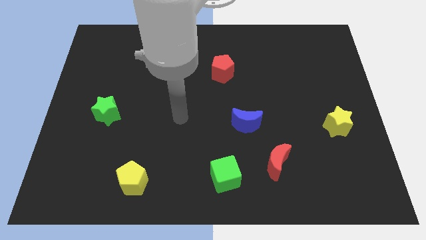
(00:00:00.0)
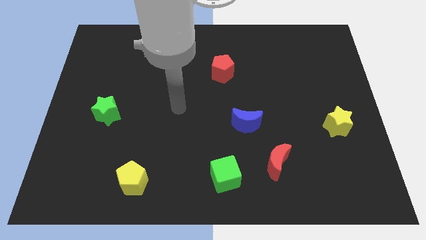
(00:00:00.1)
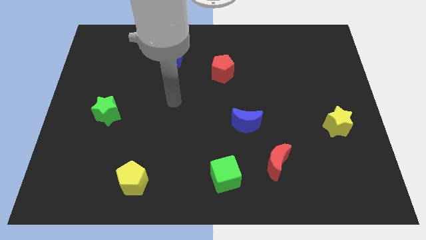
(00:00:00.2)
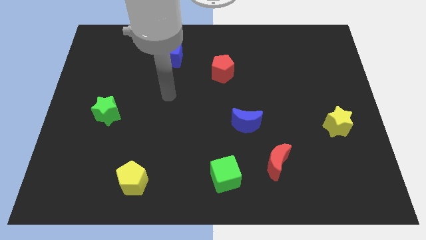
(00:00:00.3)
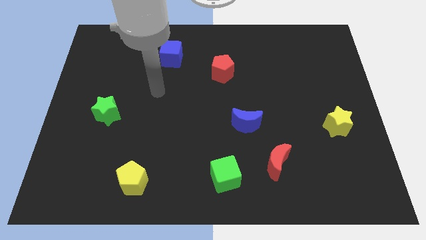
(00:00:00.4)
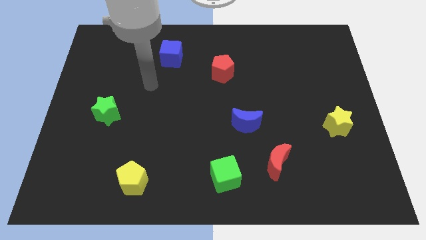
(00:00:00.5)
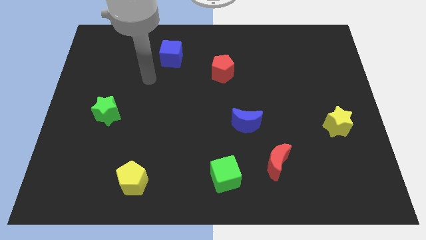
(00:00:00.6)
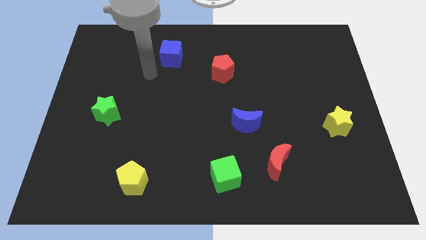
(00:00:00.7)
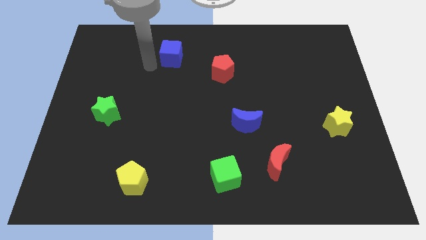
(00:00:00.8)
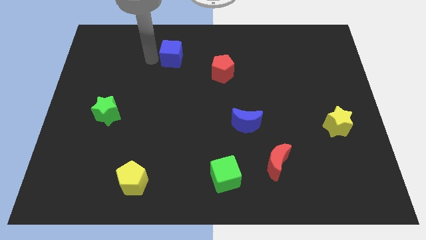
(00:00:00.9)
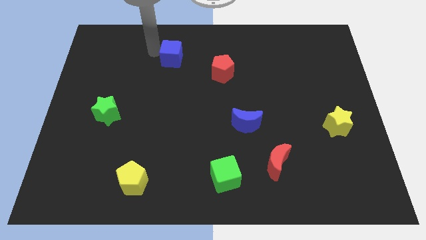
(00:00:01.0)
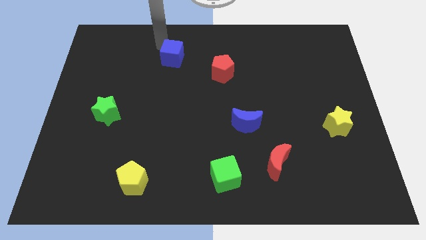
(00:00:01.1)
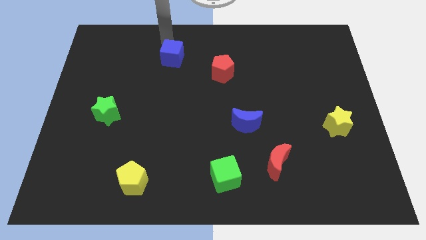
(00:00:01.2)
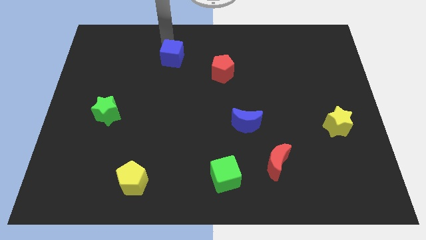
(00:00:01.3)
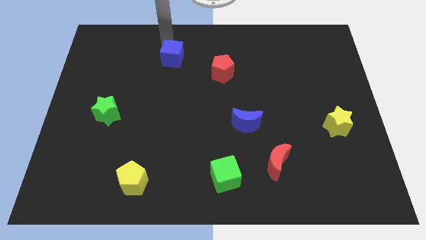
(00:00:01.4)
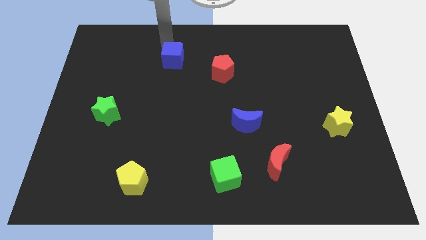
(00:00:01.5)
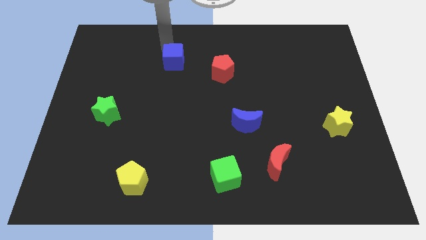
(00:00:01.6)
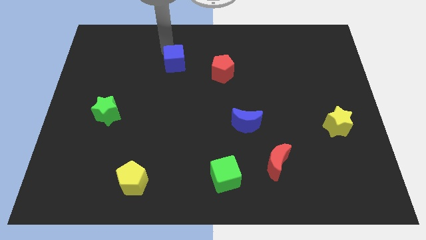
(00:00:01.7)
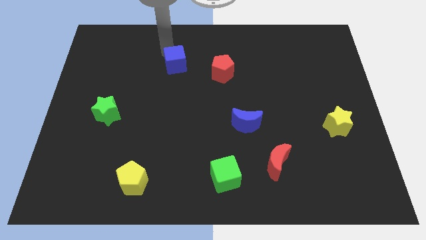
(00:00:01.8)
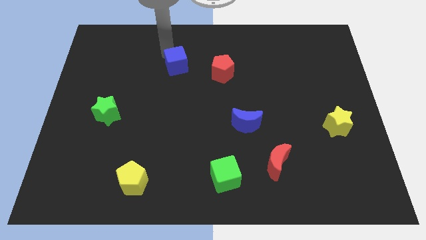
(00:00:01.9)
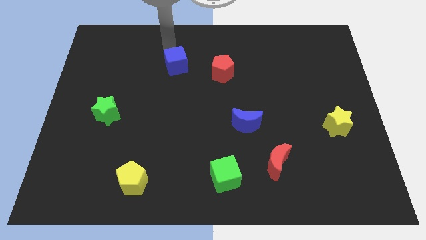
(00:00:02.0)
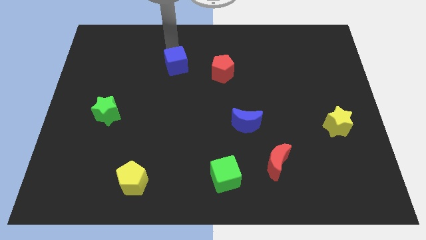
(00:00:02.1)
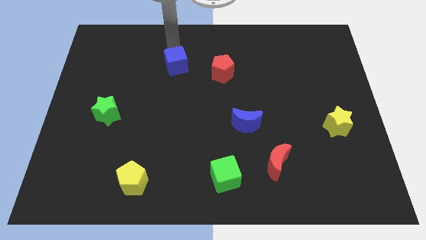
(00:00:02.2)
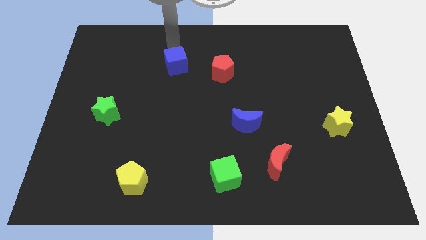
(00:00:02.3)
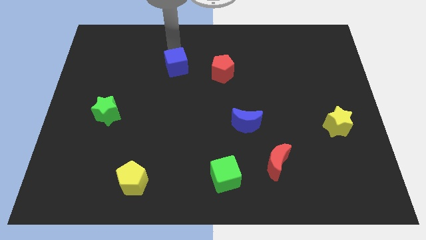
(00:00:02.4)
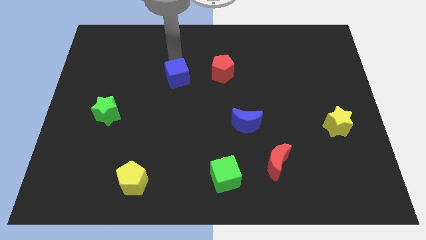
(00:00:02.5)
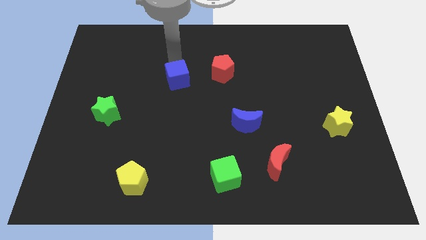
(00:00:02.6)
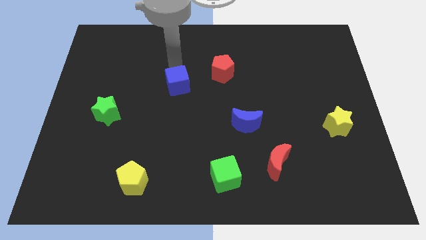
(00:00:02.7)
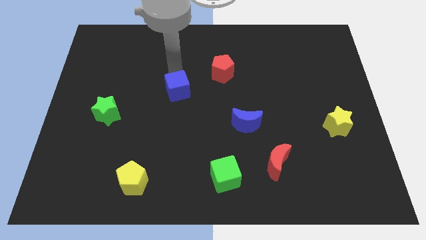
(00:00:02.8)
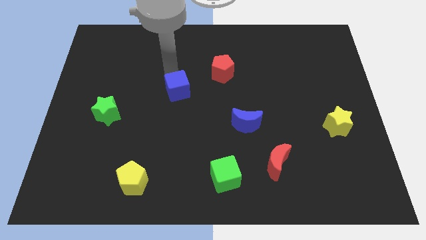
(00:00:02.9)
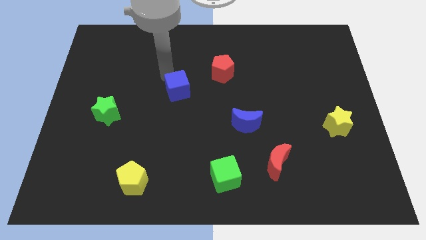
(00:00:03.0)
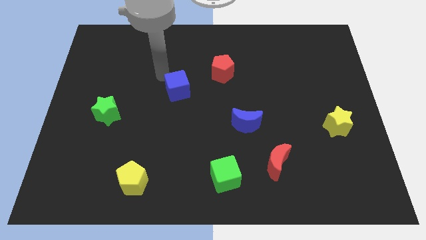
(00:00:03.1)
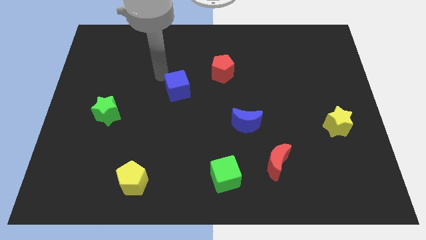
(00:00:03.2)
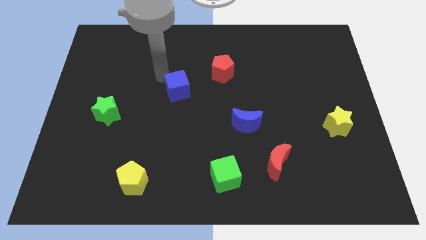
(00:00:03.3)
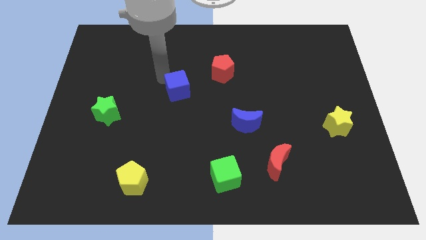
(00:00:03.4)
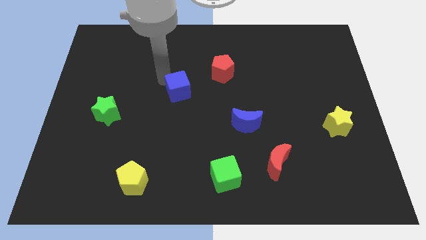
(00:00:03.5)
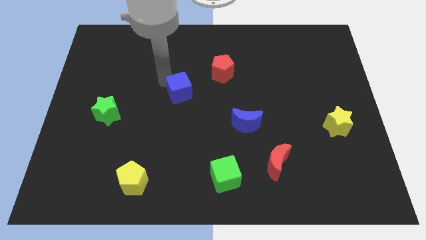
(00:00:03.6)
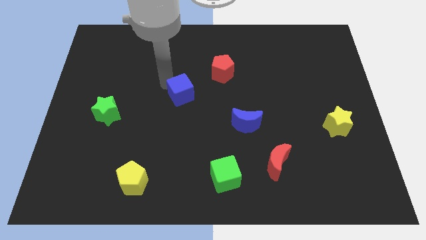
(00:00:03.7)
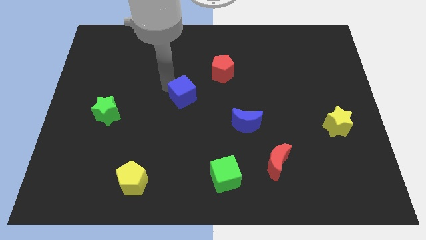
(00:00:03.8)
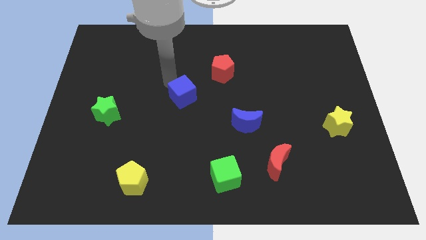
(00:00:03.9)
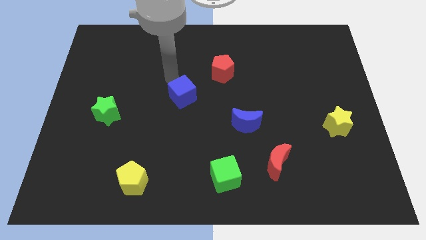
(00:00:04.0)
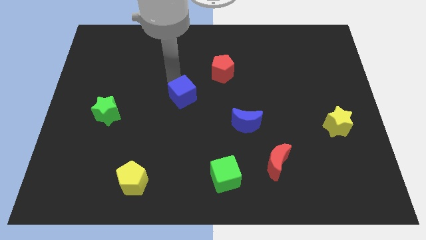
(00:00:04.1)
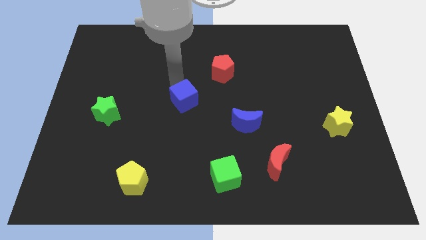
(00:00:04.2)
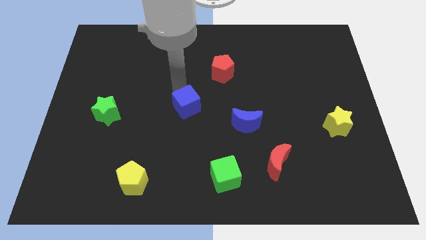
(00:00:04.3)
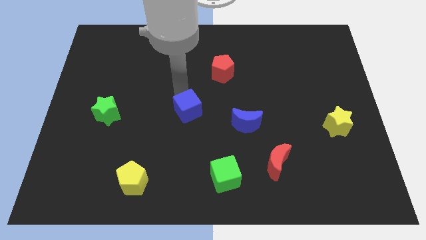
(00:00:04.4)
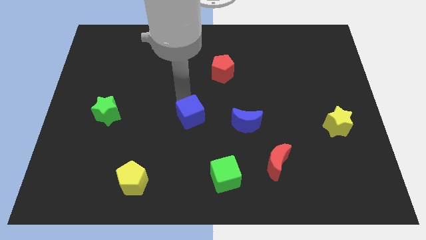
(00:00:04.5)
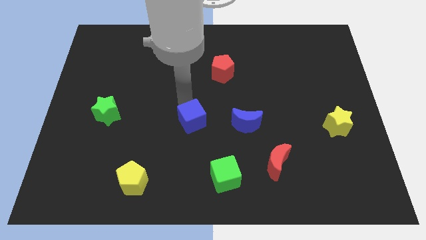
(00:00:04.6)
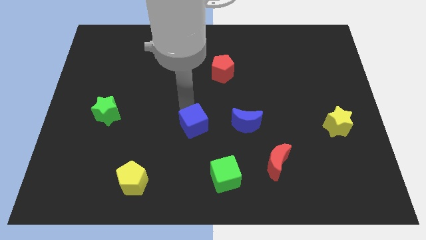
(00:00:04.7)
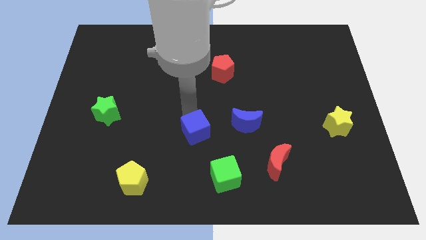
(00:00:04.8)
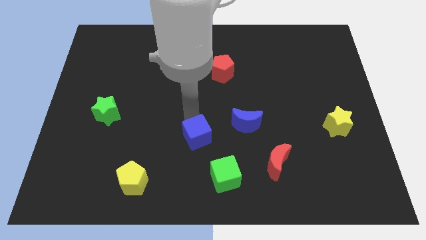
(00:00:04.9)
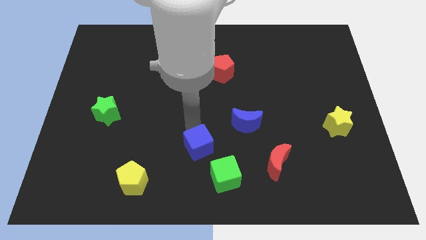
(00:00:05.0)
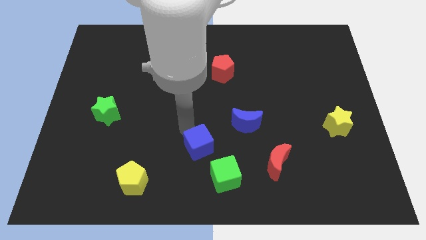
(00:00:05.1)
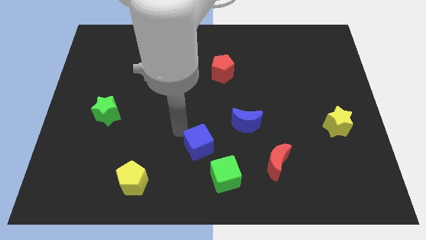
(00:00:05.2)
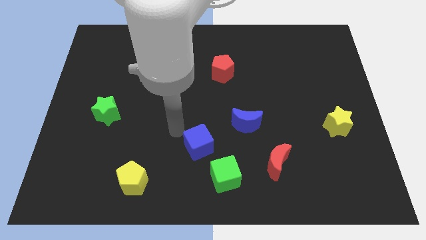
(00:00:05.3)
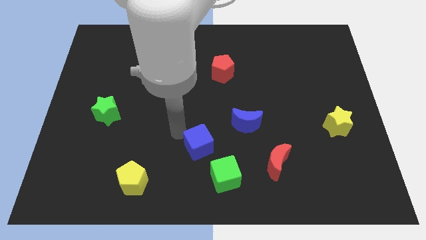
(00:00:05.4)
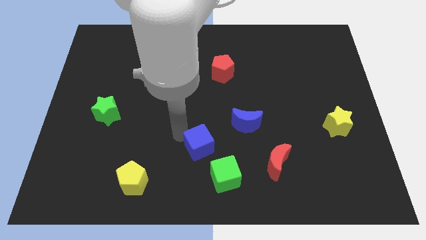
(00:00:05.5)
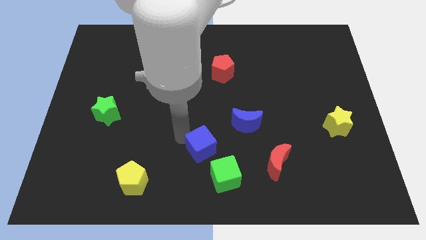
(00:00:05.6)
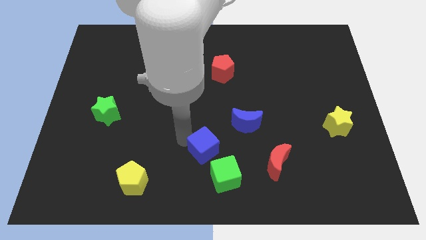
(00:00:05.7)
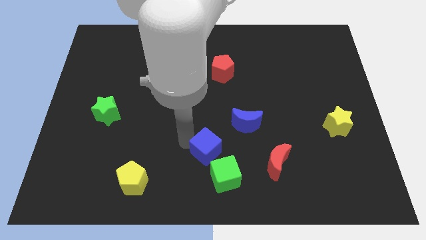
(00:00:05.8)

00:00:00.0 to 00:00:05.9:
move the blue cube left of the red moon

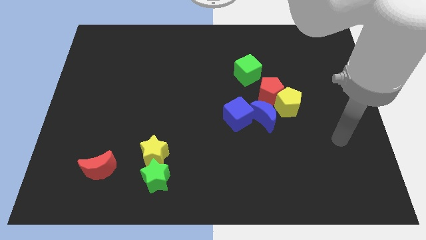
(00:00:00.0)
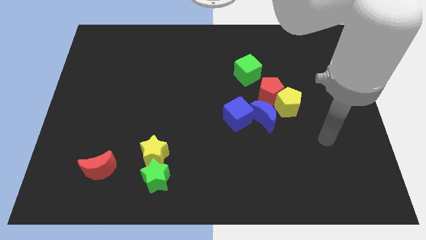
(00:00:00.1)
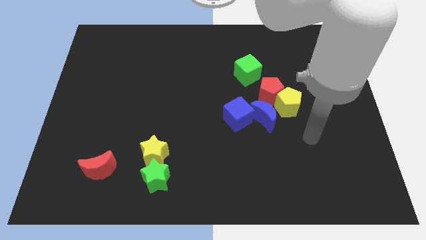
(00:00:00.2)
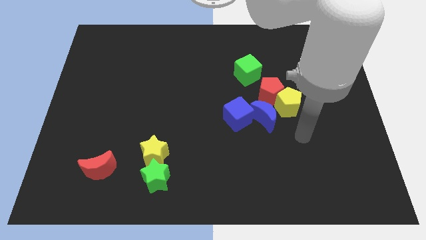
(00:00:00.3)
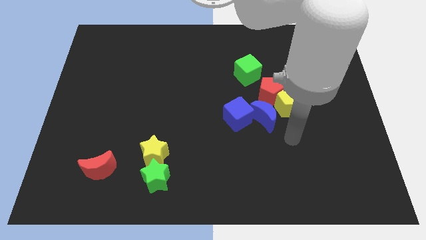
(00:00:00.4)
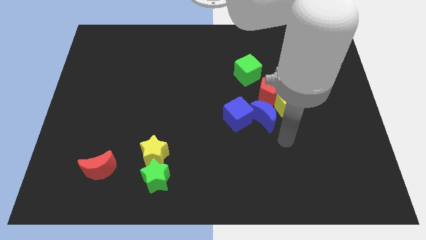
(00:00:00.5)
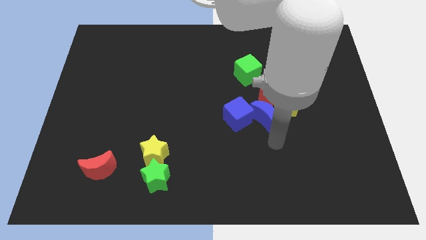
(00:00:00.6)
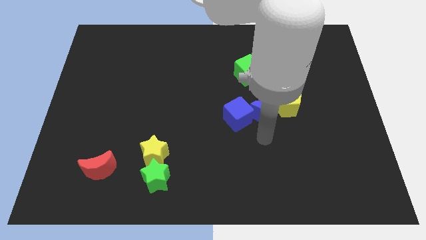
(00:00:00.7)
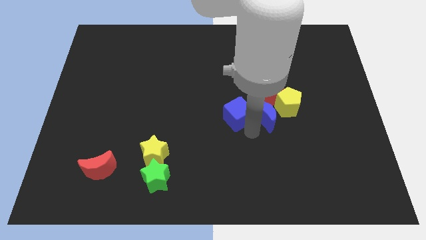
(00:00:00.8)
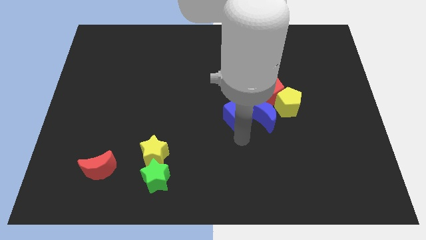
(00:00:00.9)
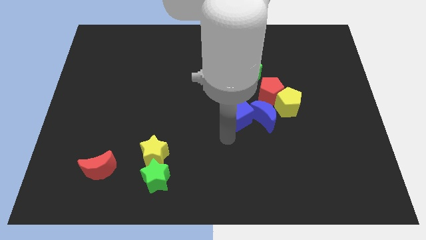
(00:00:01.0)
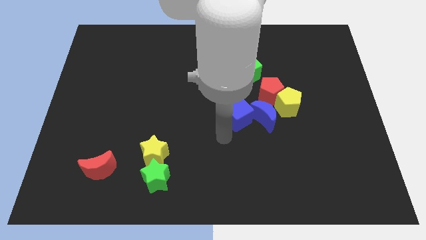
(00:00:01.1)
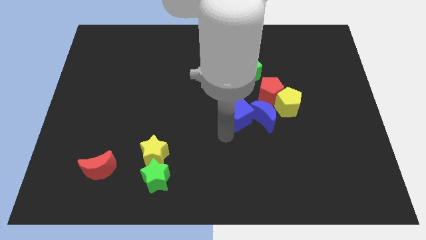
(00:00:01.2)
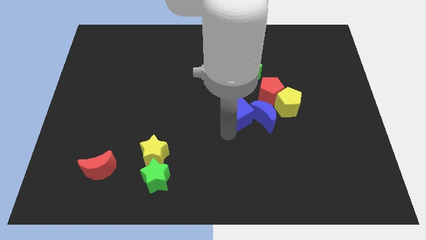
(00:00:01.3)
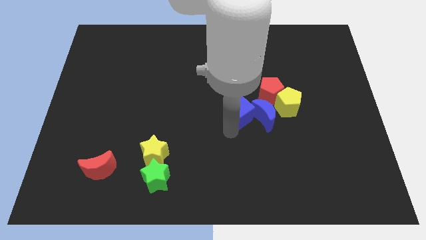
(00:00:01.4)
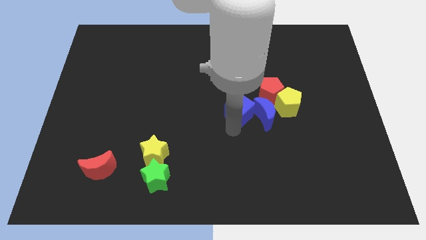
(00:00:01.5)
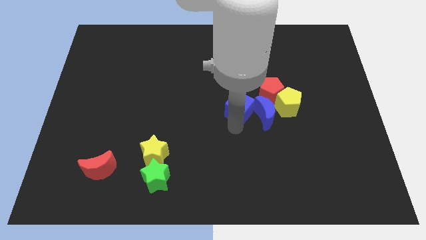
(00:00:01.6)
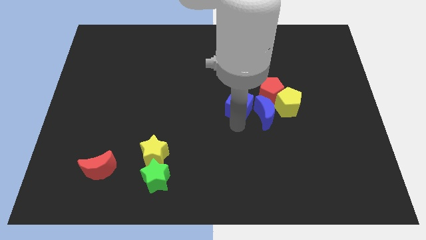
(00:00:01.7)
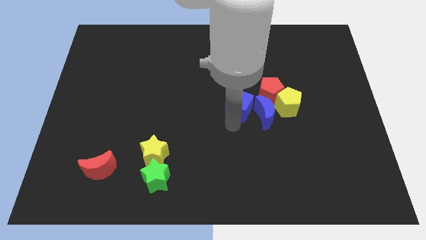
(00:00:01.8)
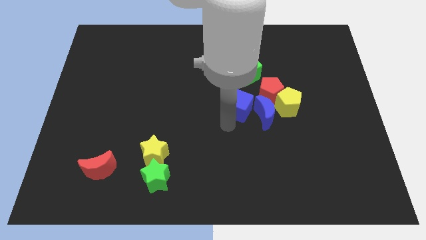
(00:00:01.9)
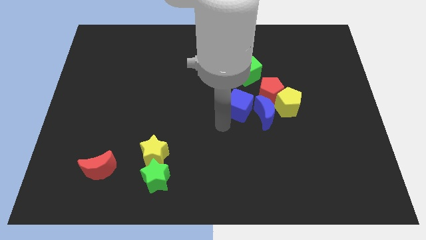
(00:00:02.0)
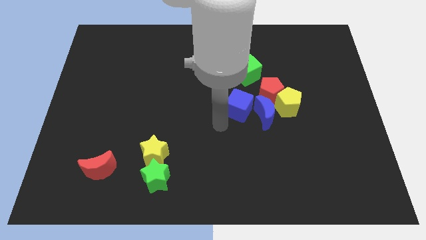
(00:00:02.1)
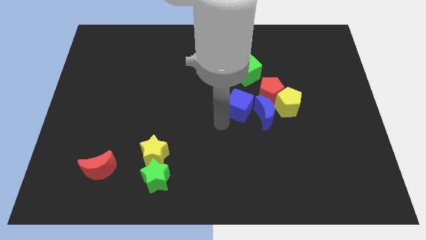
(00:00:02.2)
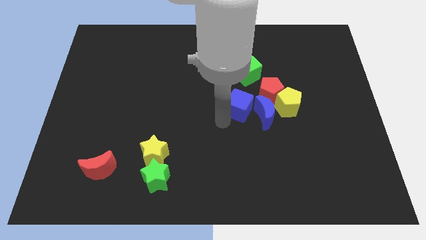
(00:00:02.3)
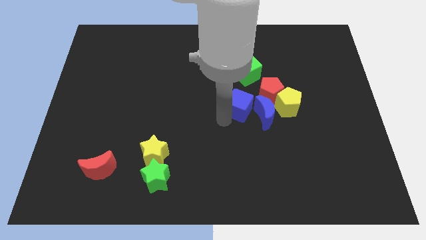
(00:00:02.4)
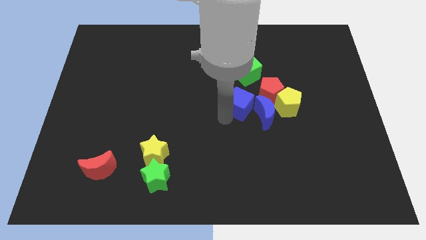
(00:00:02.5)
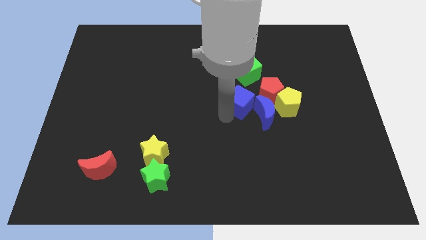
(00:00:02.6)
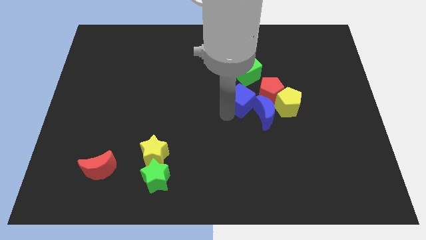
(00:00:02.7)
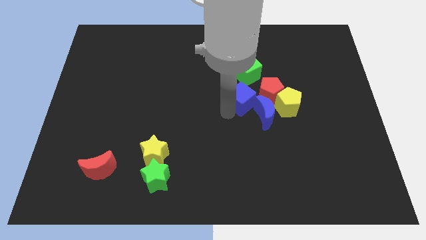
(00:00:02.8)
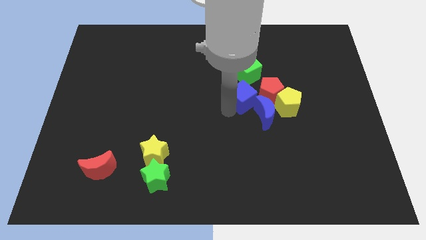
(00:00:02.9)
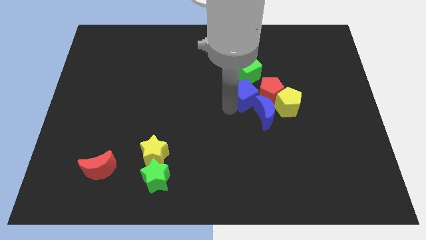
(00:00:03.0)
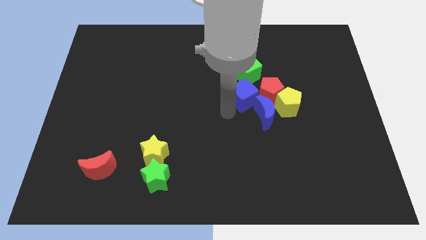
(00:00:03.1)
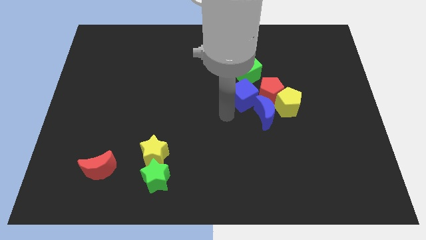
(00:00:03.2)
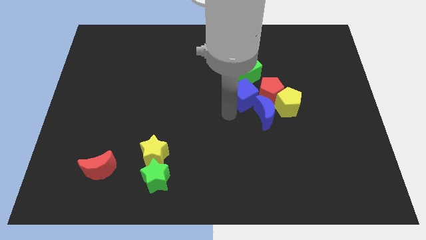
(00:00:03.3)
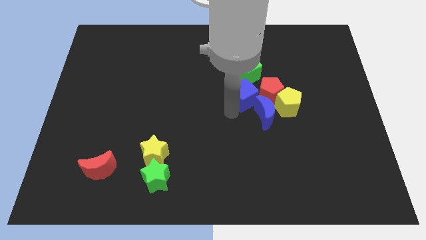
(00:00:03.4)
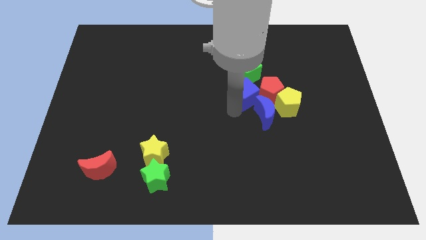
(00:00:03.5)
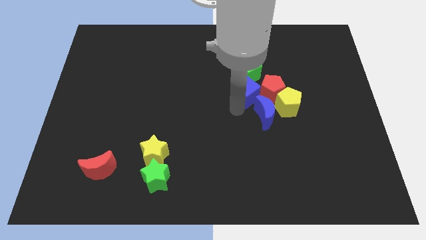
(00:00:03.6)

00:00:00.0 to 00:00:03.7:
move the blue cube to the top left of the yellow pentagon
